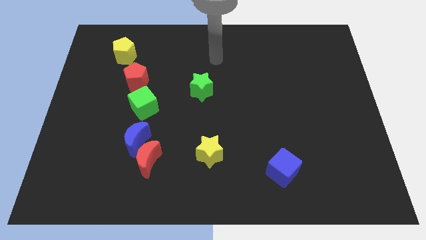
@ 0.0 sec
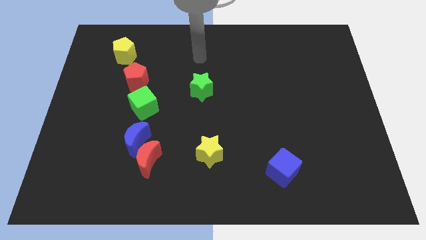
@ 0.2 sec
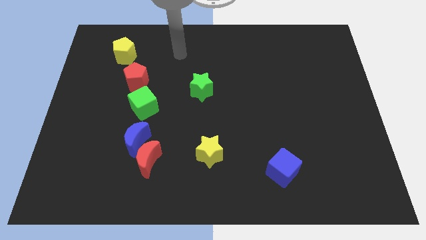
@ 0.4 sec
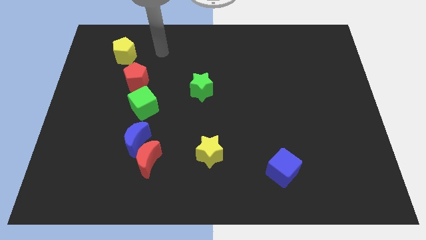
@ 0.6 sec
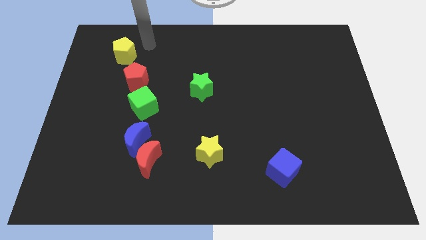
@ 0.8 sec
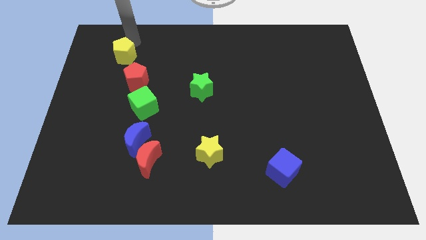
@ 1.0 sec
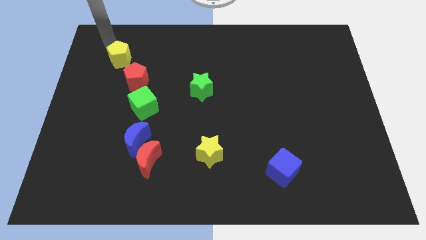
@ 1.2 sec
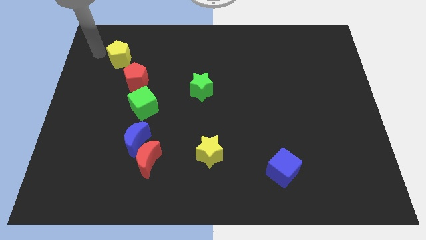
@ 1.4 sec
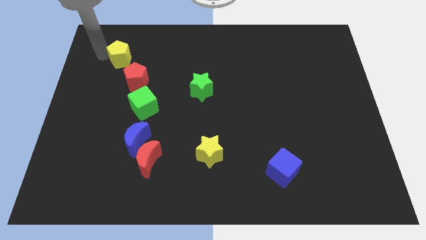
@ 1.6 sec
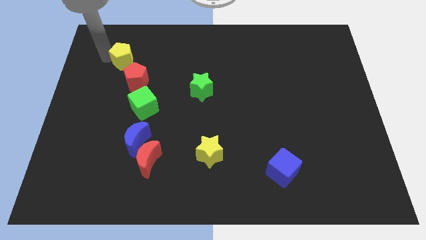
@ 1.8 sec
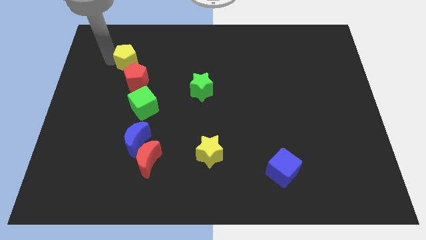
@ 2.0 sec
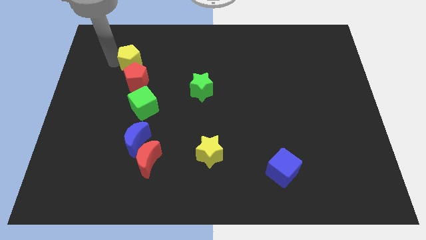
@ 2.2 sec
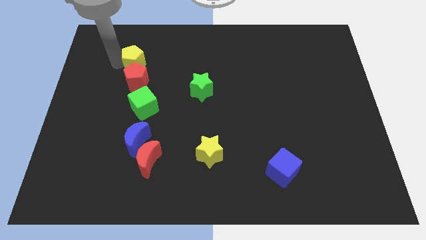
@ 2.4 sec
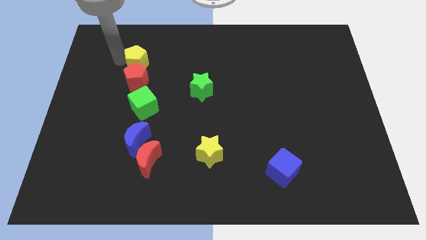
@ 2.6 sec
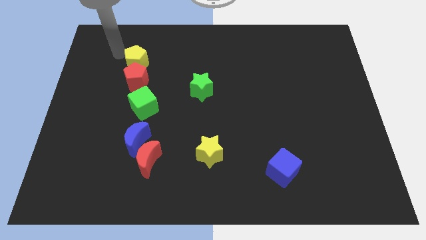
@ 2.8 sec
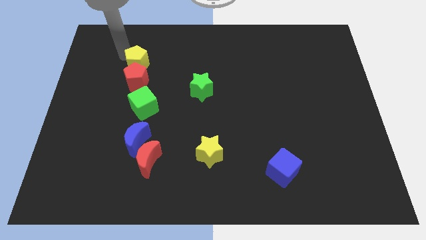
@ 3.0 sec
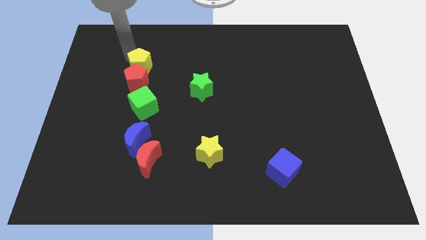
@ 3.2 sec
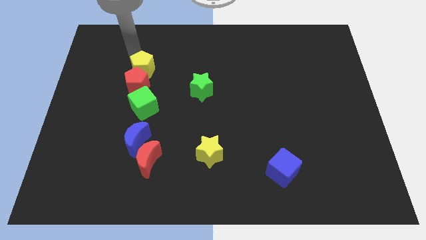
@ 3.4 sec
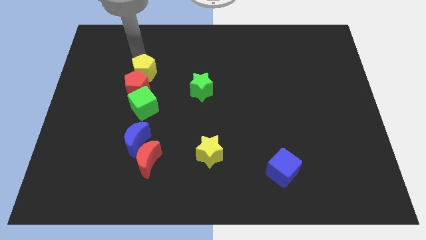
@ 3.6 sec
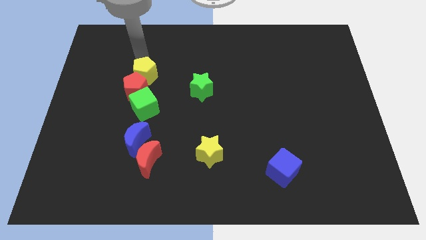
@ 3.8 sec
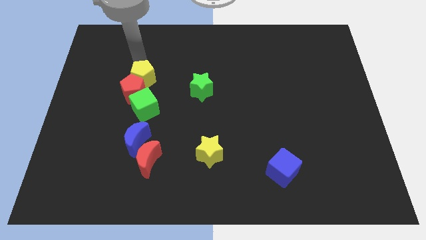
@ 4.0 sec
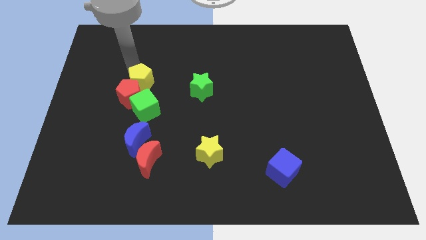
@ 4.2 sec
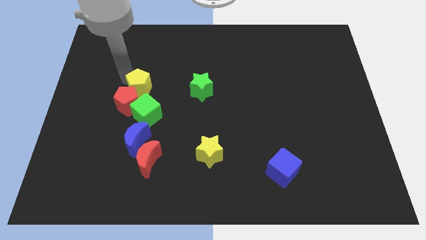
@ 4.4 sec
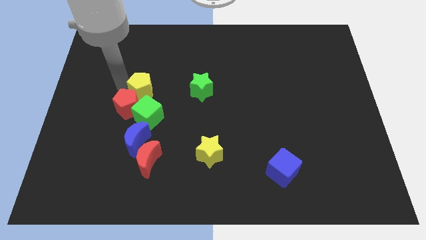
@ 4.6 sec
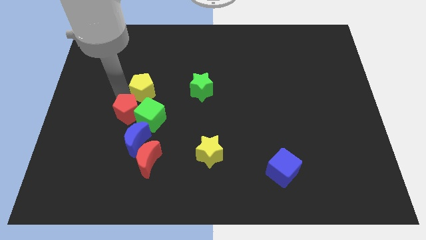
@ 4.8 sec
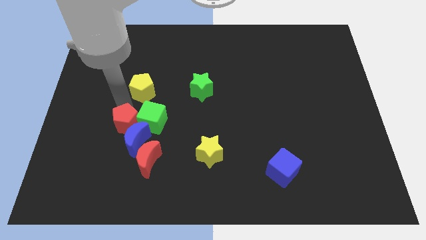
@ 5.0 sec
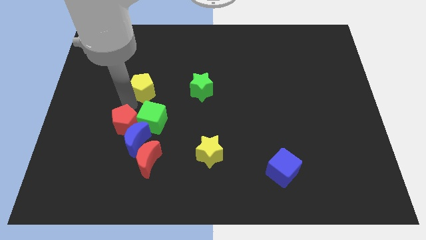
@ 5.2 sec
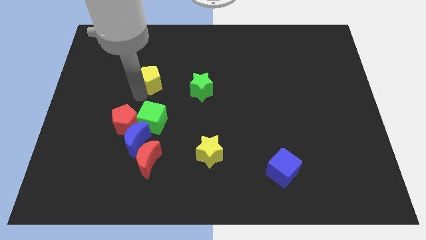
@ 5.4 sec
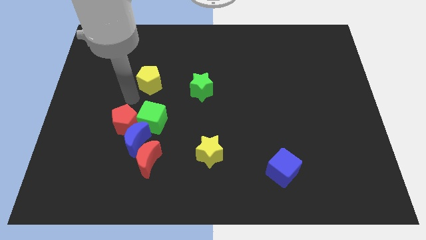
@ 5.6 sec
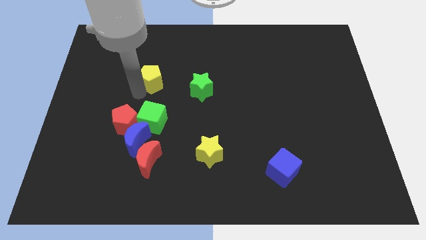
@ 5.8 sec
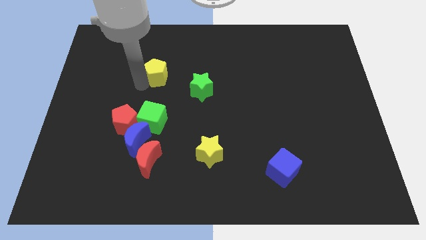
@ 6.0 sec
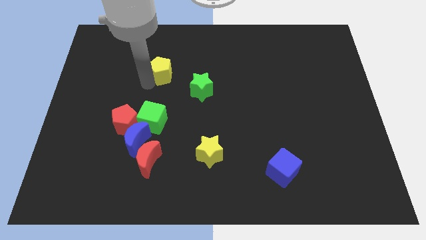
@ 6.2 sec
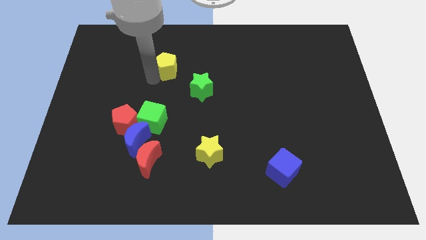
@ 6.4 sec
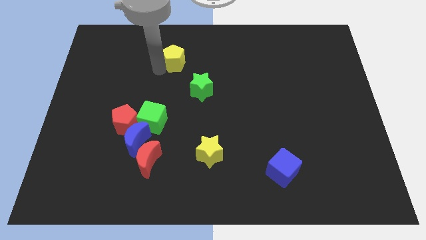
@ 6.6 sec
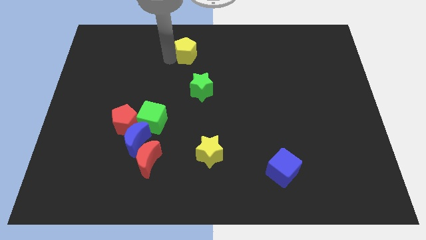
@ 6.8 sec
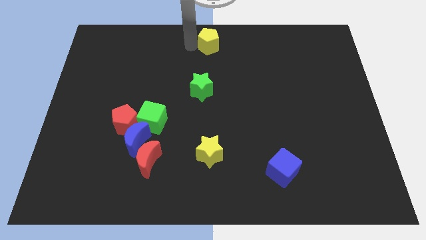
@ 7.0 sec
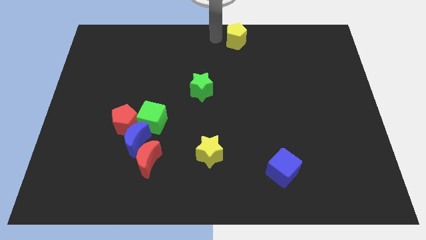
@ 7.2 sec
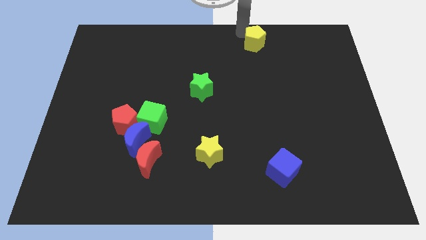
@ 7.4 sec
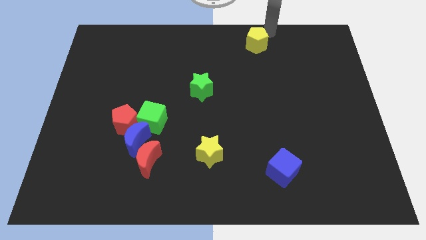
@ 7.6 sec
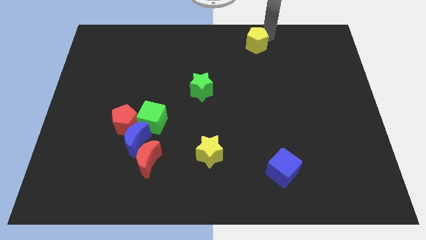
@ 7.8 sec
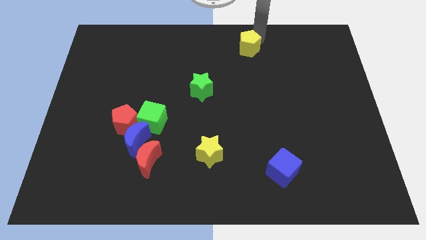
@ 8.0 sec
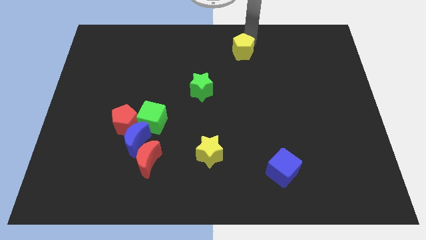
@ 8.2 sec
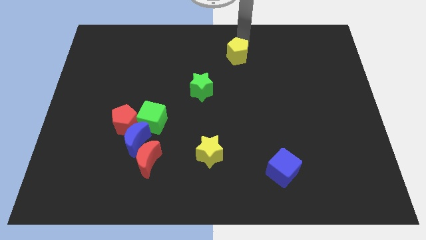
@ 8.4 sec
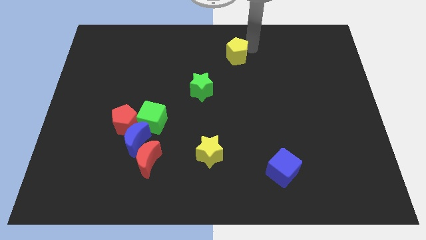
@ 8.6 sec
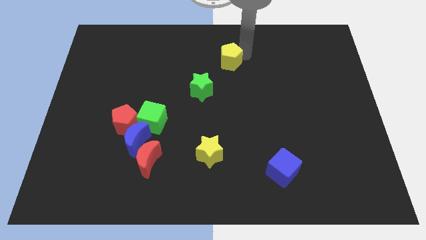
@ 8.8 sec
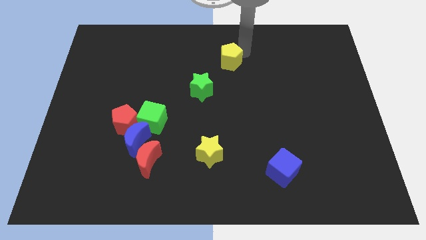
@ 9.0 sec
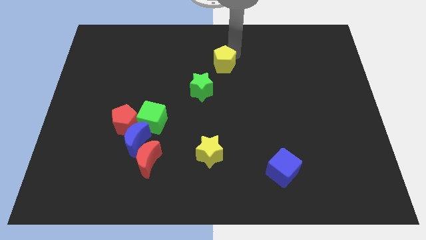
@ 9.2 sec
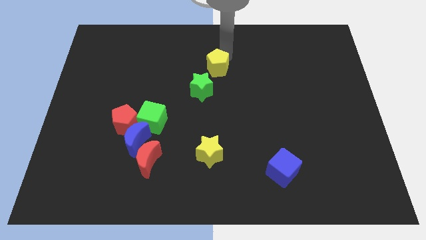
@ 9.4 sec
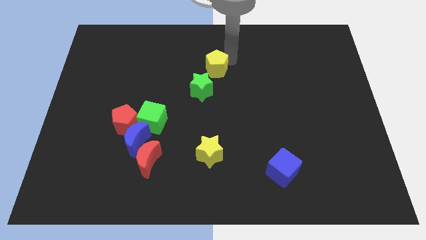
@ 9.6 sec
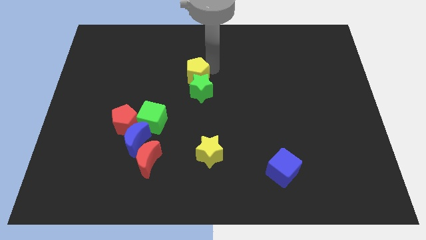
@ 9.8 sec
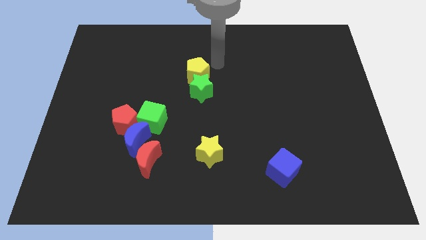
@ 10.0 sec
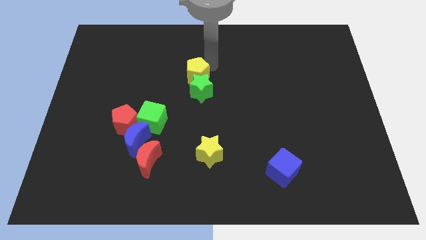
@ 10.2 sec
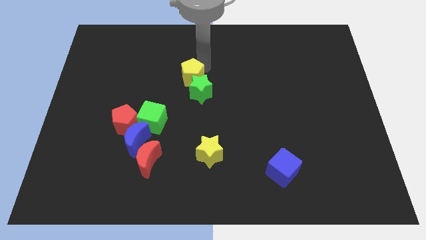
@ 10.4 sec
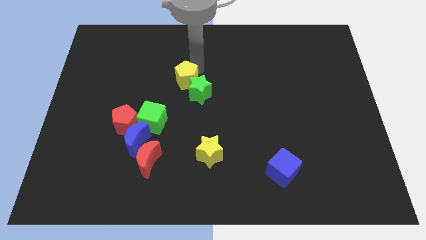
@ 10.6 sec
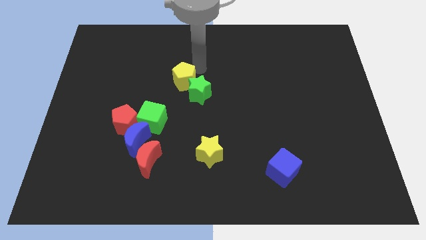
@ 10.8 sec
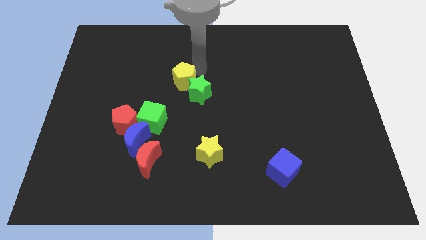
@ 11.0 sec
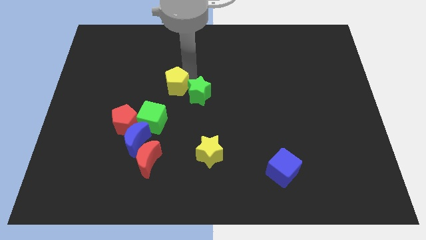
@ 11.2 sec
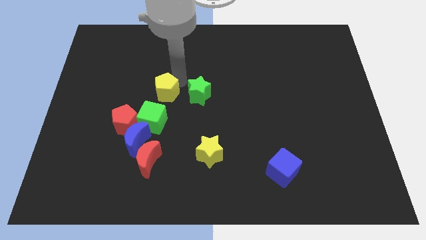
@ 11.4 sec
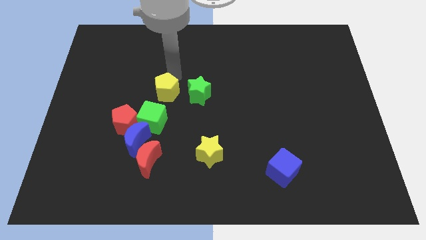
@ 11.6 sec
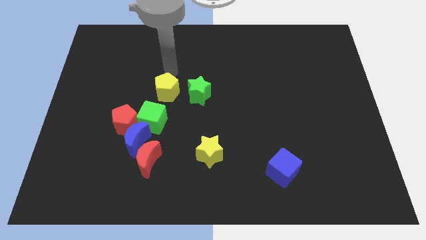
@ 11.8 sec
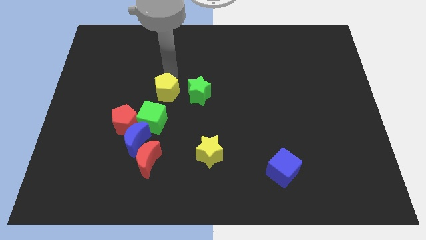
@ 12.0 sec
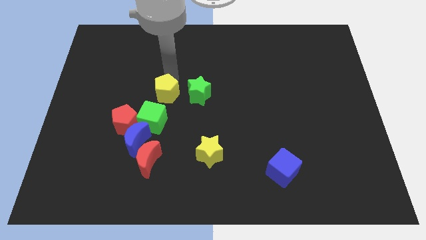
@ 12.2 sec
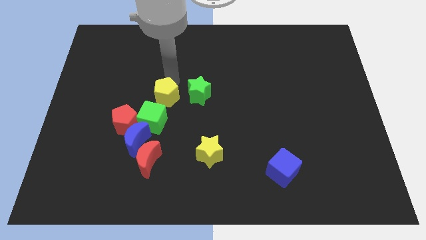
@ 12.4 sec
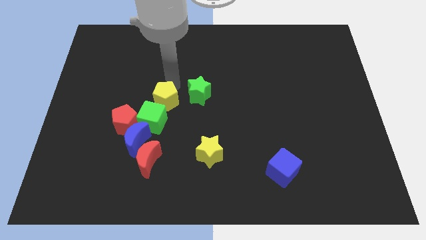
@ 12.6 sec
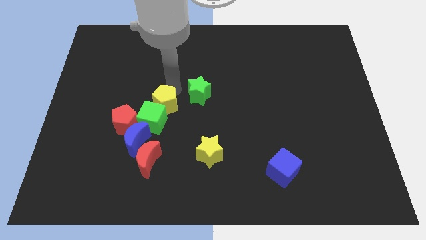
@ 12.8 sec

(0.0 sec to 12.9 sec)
put the yellow pentagon to the top of the red moon

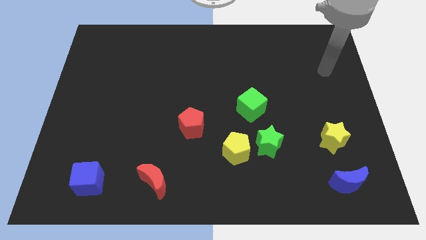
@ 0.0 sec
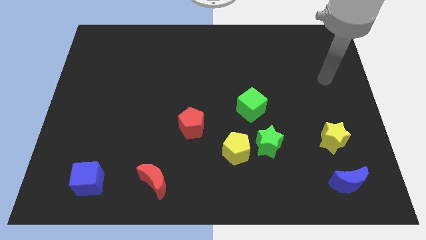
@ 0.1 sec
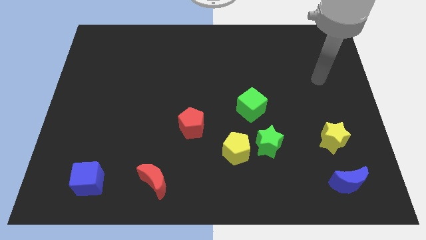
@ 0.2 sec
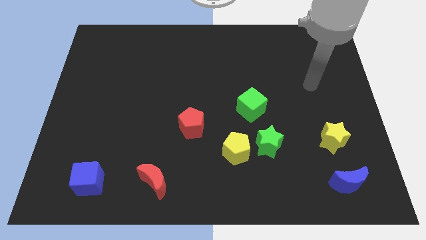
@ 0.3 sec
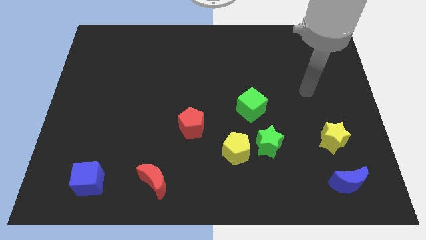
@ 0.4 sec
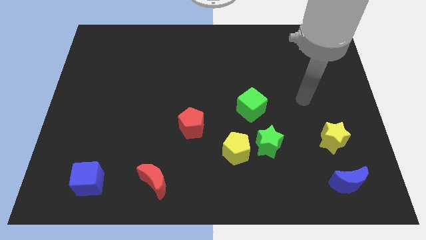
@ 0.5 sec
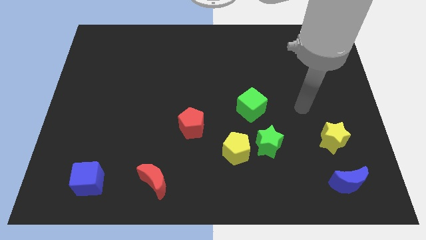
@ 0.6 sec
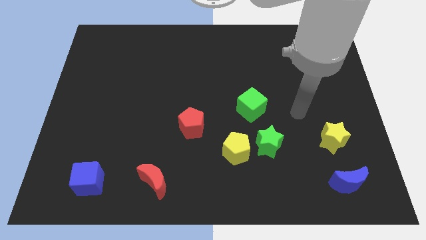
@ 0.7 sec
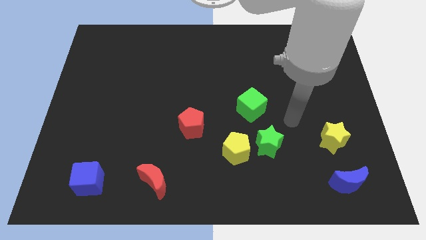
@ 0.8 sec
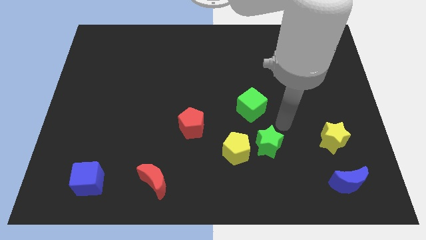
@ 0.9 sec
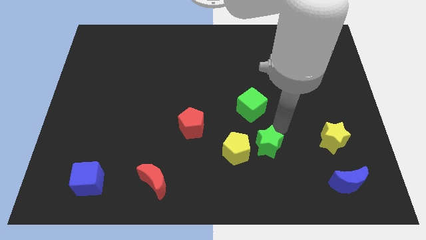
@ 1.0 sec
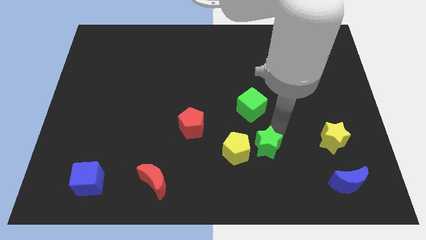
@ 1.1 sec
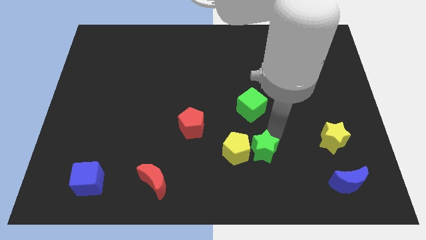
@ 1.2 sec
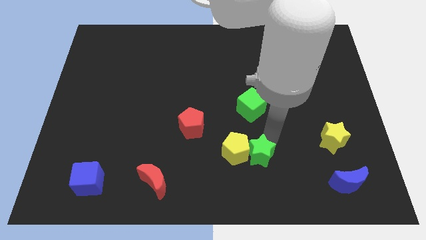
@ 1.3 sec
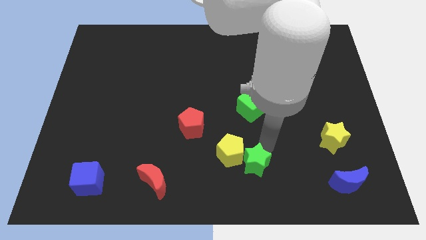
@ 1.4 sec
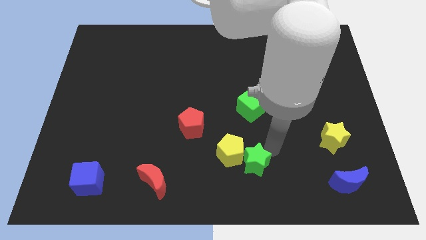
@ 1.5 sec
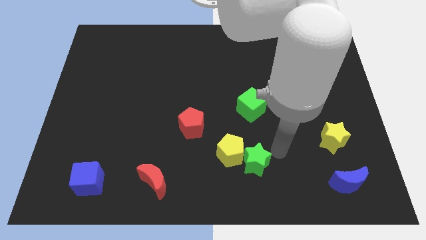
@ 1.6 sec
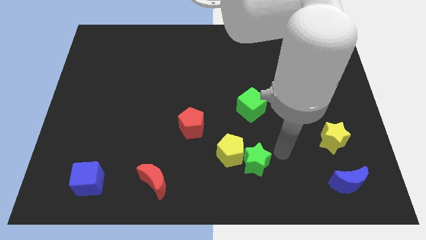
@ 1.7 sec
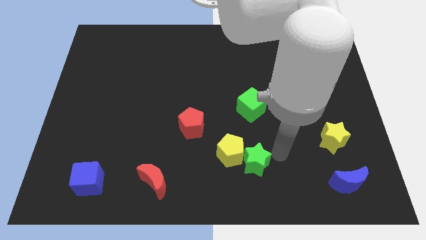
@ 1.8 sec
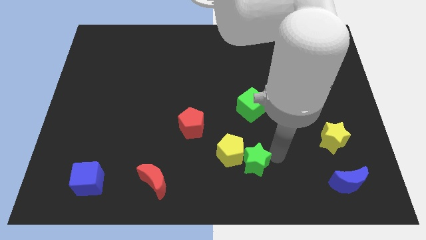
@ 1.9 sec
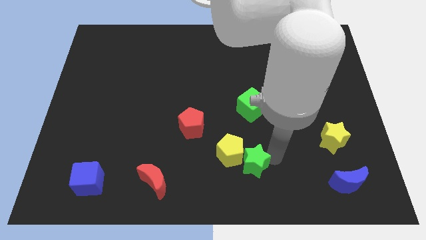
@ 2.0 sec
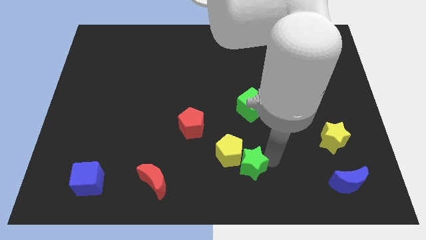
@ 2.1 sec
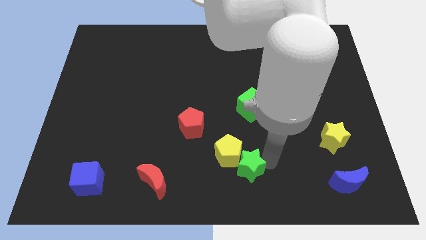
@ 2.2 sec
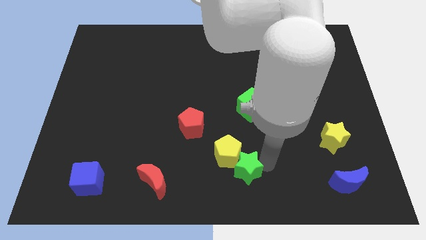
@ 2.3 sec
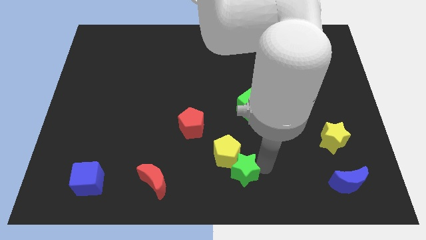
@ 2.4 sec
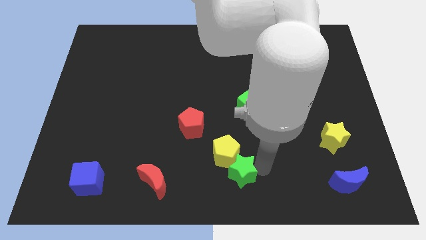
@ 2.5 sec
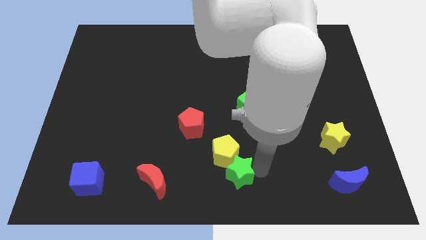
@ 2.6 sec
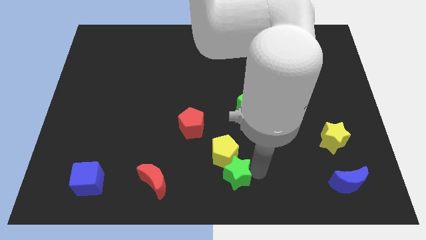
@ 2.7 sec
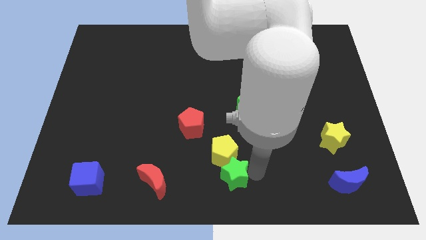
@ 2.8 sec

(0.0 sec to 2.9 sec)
slide the green star just right of the red moon
